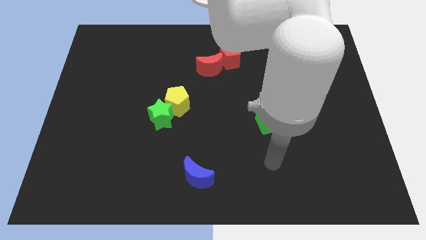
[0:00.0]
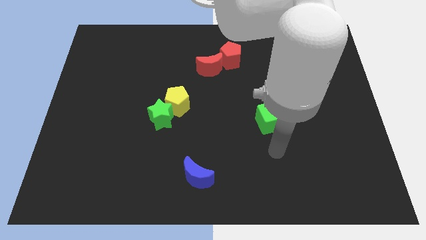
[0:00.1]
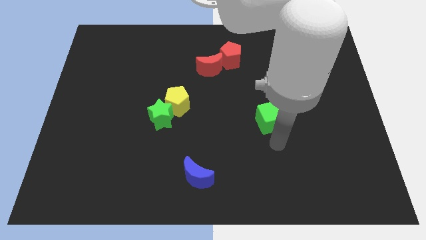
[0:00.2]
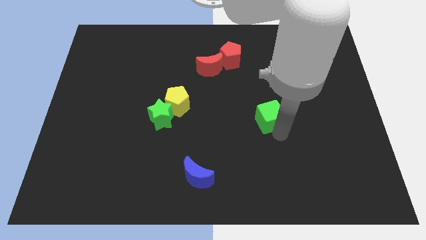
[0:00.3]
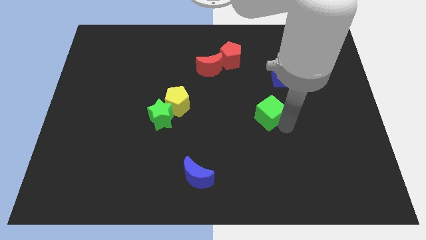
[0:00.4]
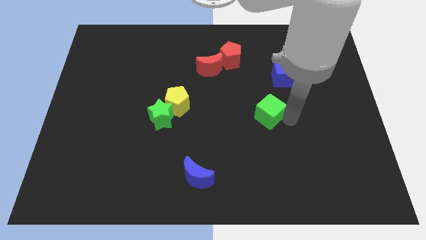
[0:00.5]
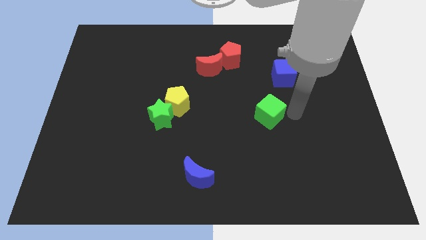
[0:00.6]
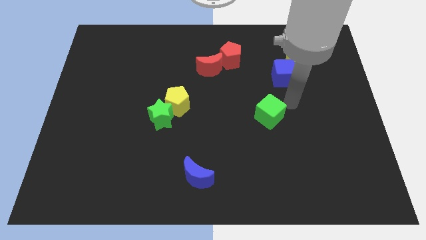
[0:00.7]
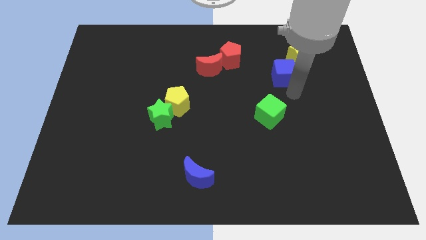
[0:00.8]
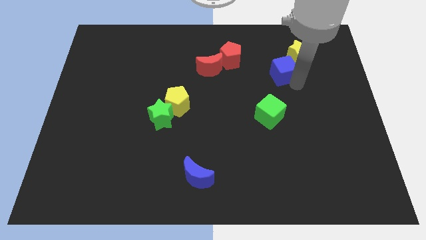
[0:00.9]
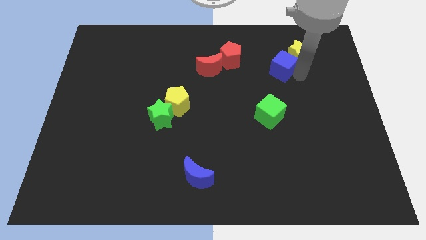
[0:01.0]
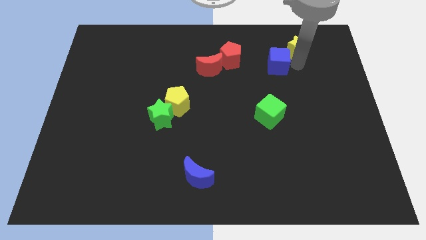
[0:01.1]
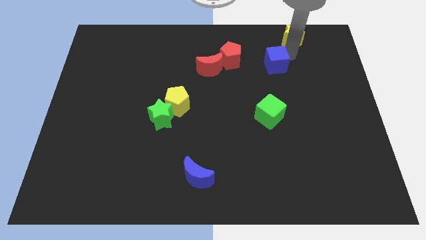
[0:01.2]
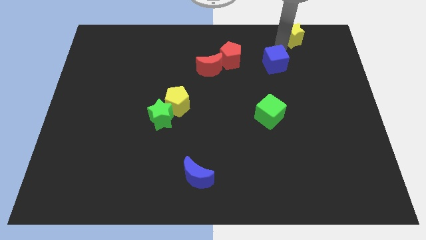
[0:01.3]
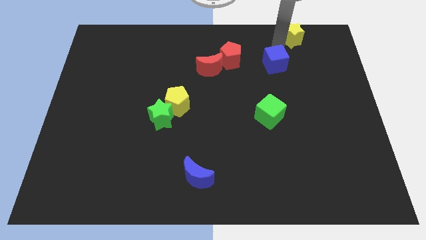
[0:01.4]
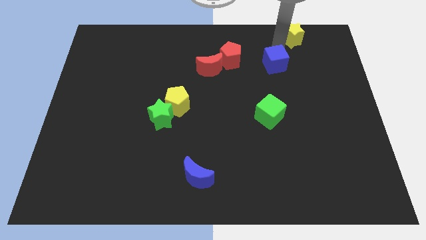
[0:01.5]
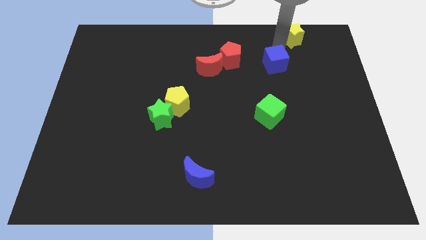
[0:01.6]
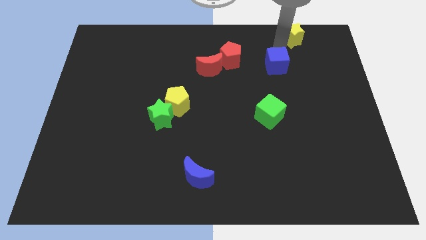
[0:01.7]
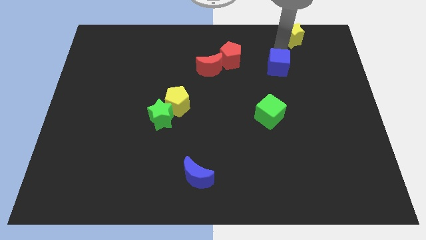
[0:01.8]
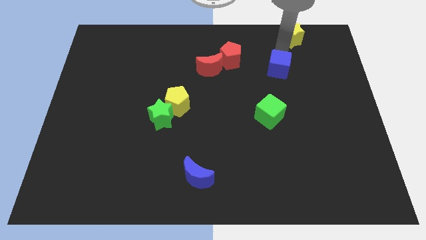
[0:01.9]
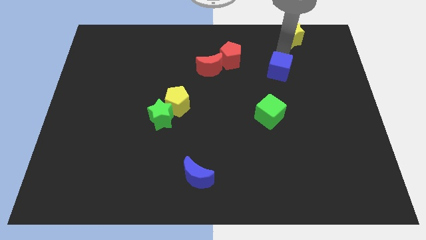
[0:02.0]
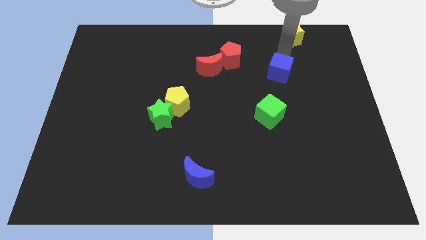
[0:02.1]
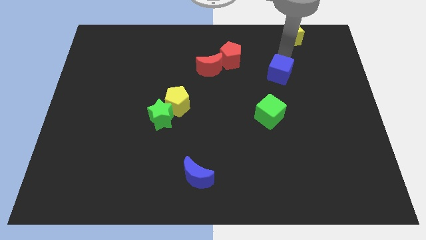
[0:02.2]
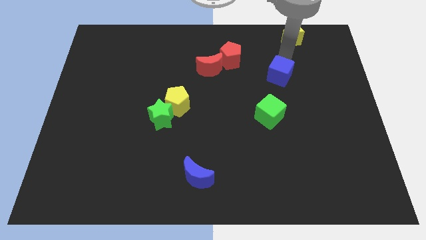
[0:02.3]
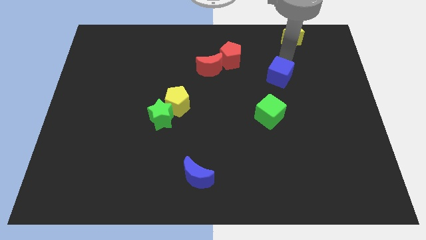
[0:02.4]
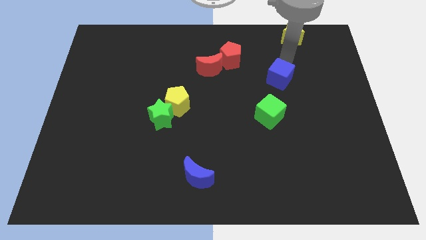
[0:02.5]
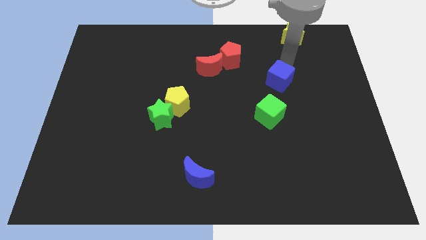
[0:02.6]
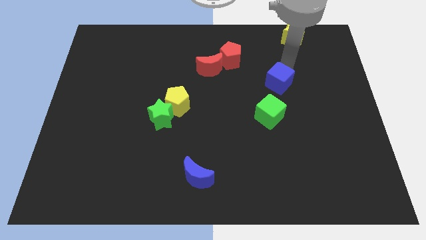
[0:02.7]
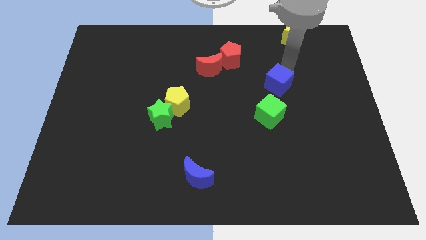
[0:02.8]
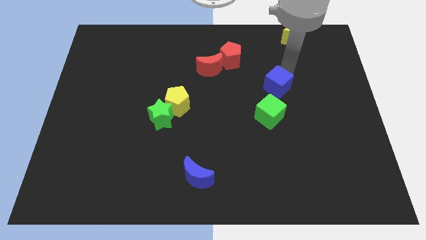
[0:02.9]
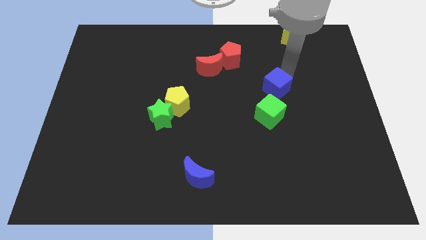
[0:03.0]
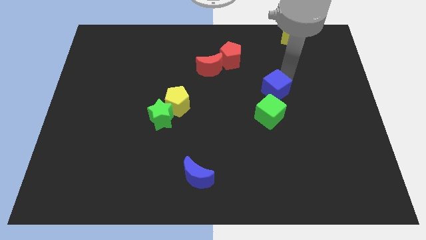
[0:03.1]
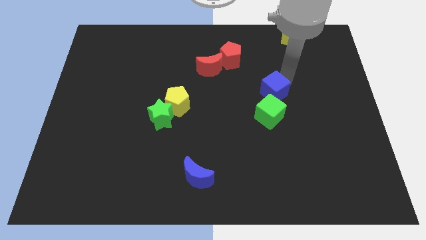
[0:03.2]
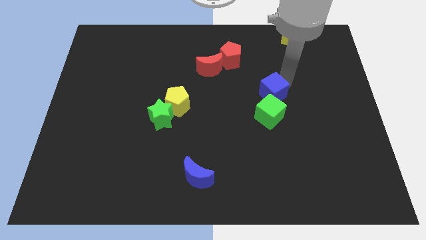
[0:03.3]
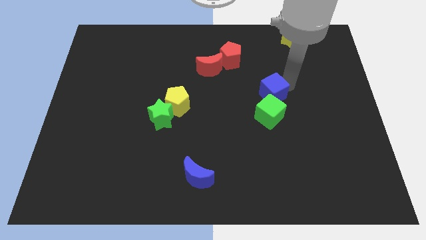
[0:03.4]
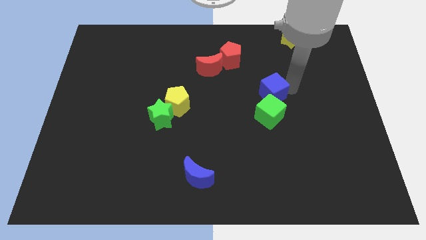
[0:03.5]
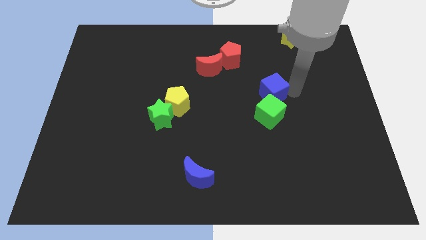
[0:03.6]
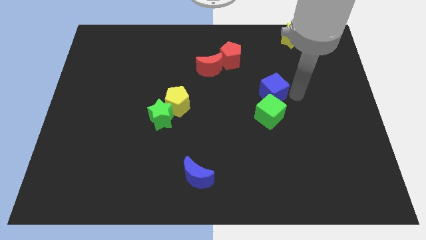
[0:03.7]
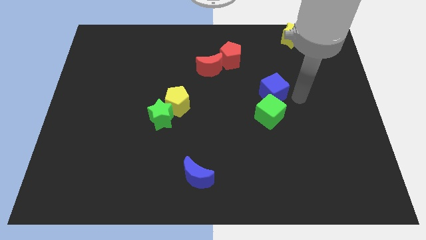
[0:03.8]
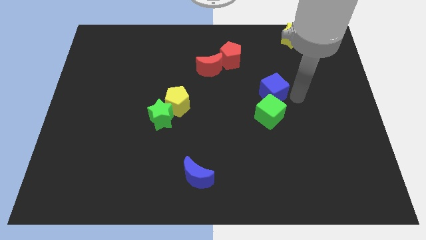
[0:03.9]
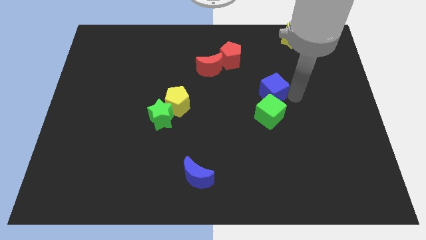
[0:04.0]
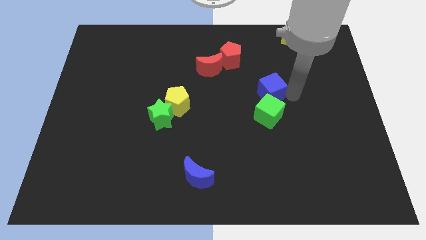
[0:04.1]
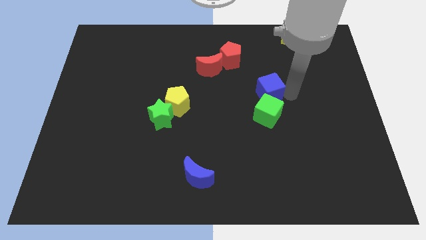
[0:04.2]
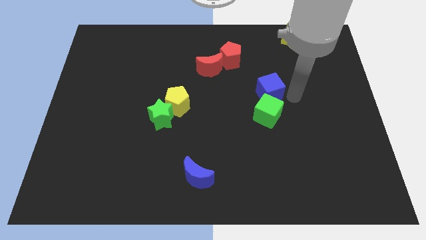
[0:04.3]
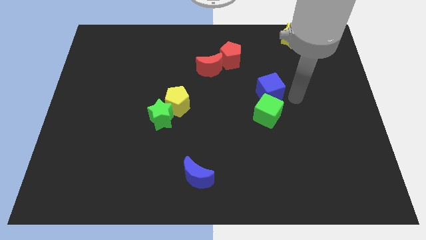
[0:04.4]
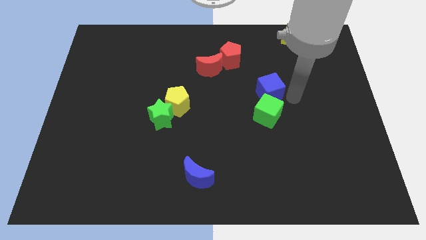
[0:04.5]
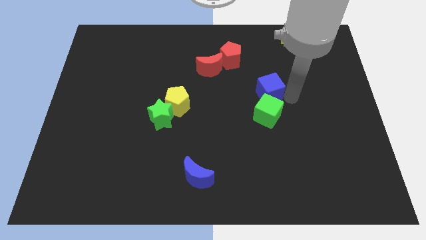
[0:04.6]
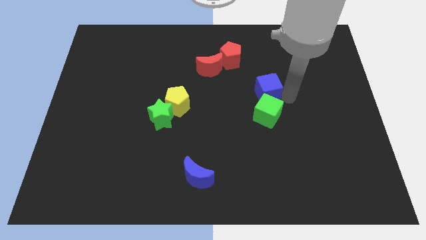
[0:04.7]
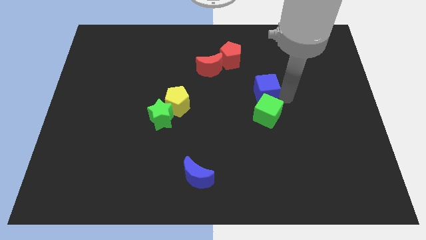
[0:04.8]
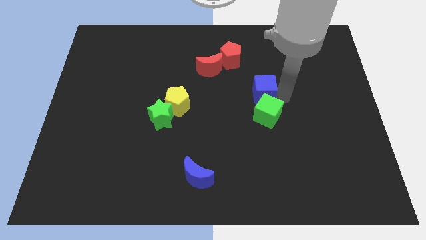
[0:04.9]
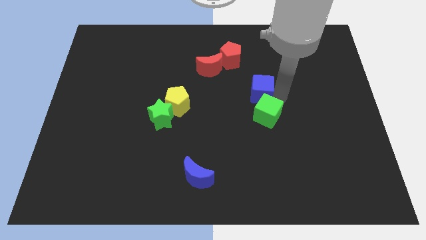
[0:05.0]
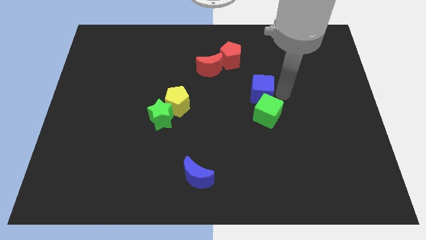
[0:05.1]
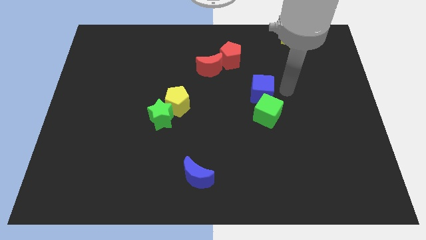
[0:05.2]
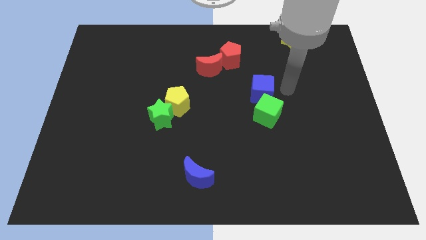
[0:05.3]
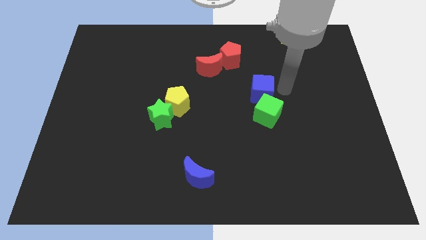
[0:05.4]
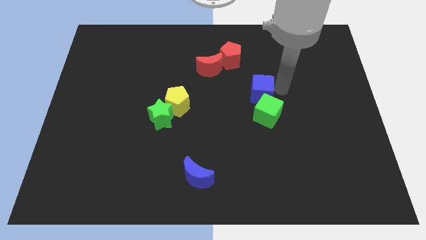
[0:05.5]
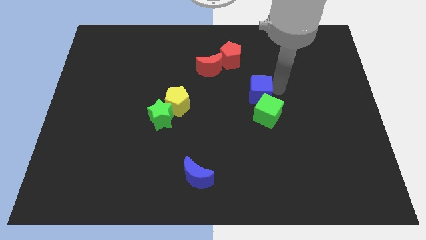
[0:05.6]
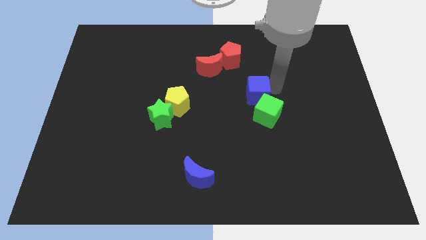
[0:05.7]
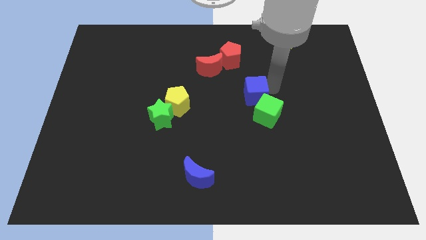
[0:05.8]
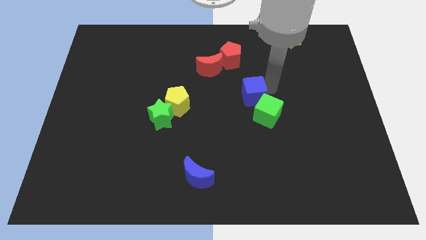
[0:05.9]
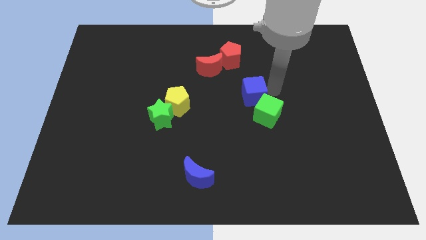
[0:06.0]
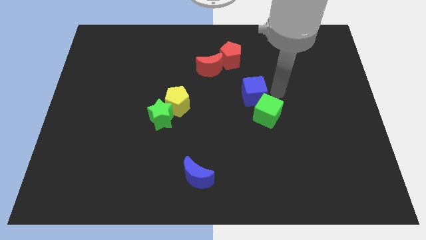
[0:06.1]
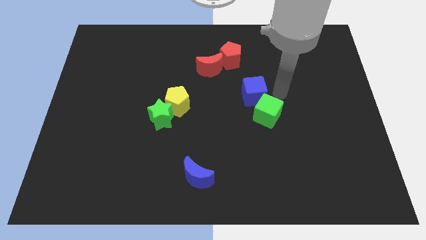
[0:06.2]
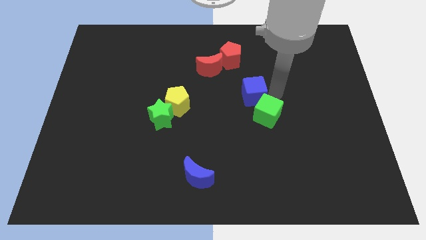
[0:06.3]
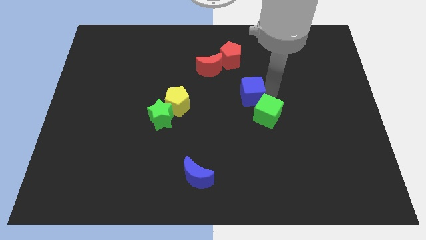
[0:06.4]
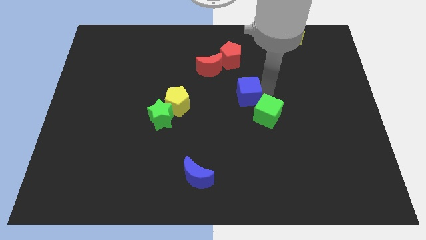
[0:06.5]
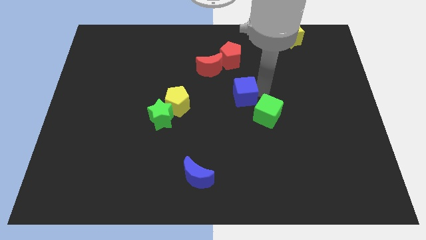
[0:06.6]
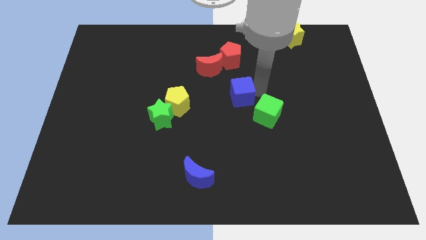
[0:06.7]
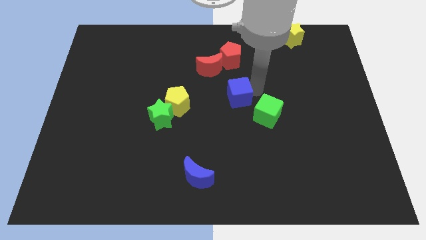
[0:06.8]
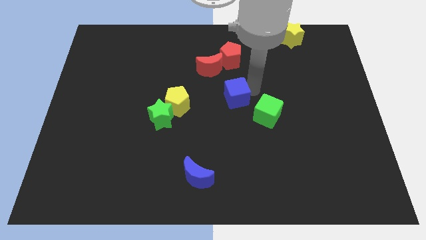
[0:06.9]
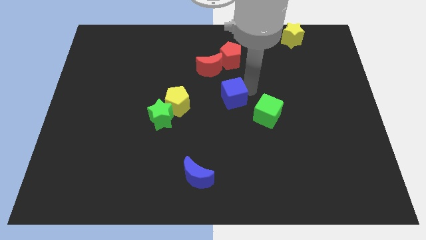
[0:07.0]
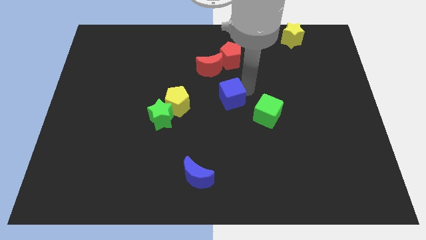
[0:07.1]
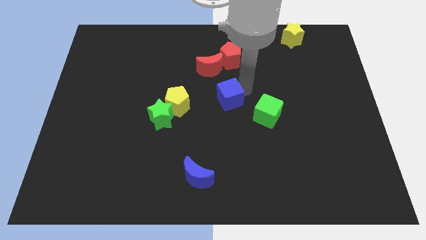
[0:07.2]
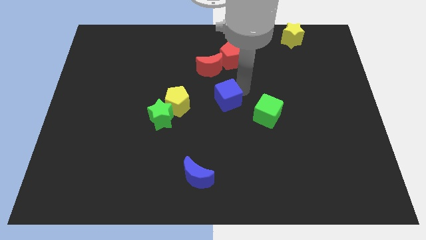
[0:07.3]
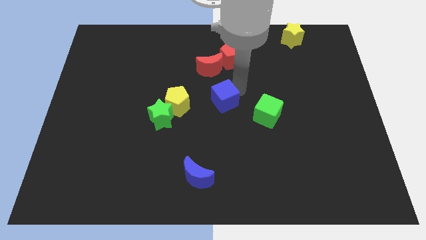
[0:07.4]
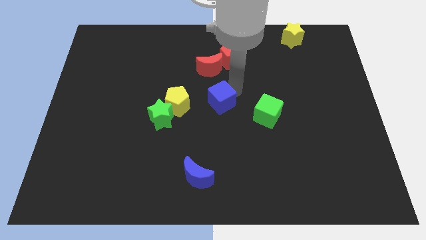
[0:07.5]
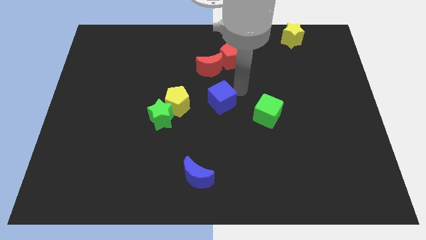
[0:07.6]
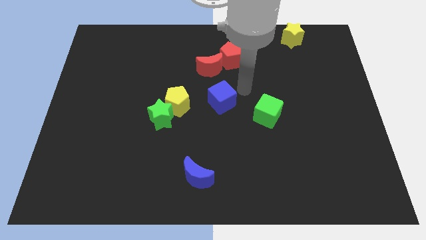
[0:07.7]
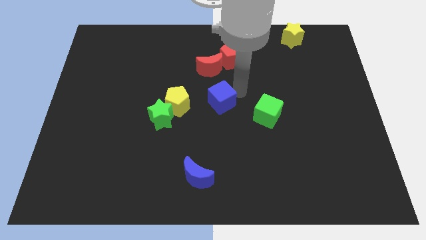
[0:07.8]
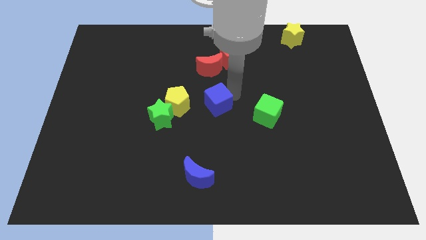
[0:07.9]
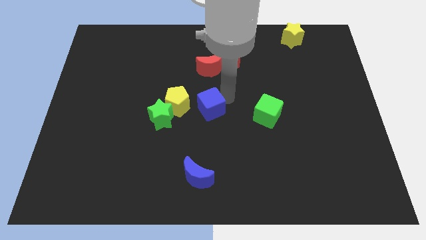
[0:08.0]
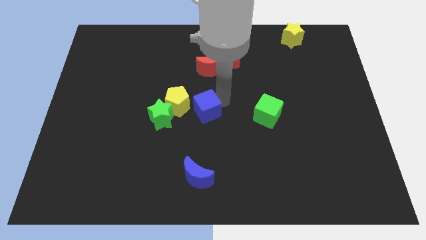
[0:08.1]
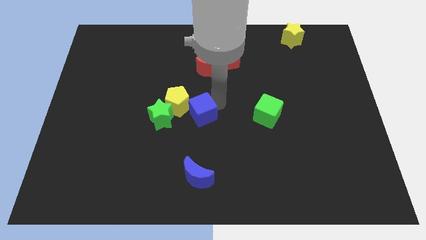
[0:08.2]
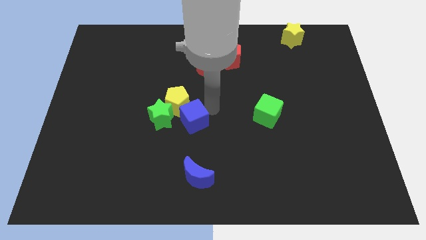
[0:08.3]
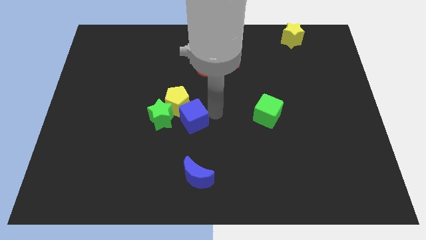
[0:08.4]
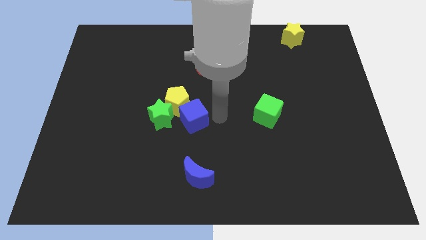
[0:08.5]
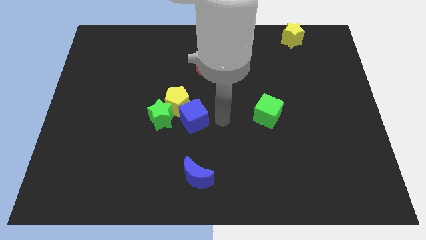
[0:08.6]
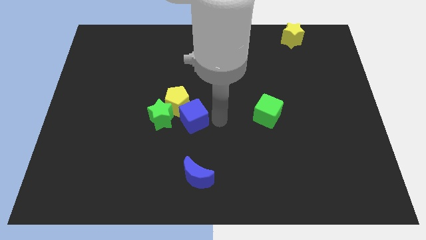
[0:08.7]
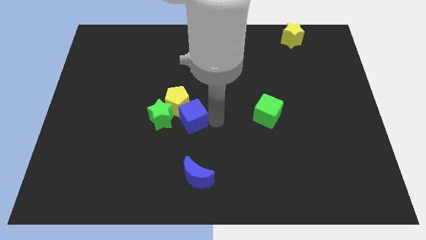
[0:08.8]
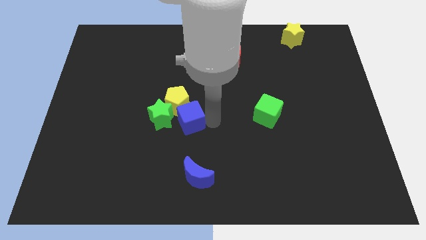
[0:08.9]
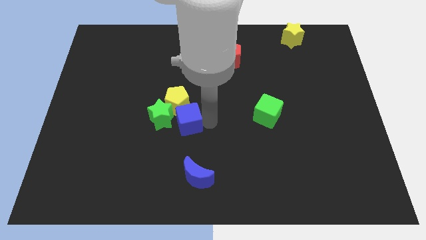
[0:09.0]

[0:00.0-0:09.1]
slide the blue cube towards the green star
